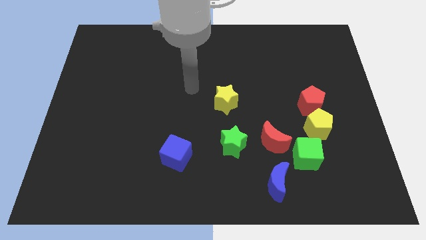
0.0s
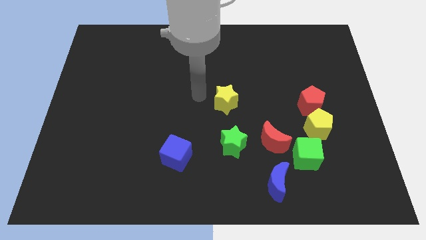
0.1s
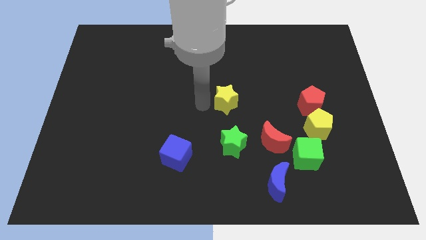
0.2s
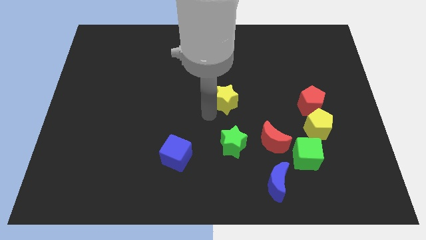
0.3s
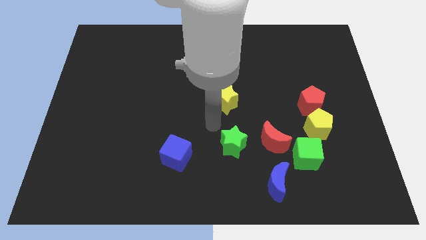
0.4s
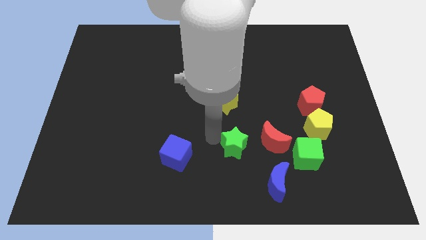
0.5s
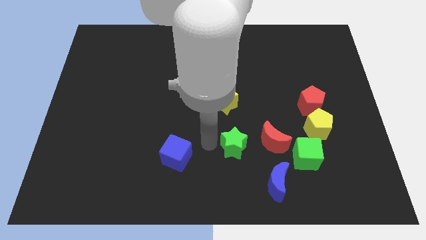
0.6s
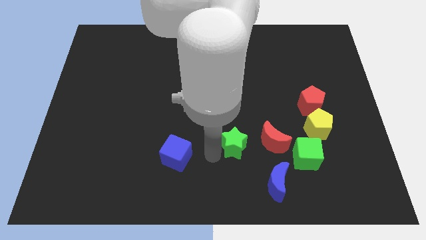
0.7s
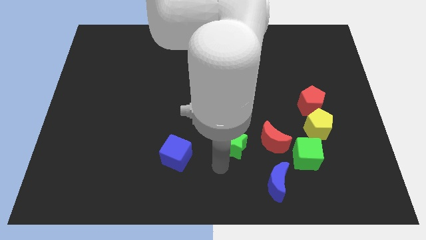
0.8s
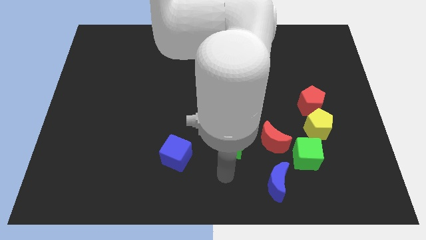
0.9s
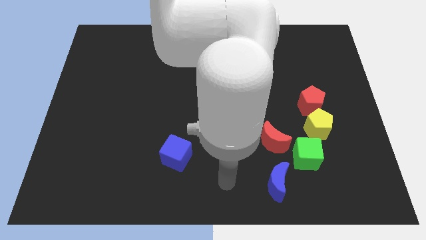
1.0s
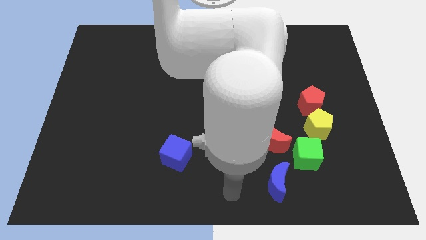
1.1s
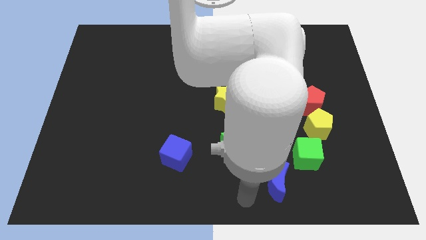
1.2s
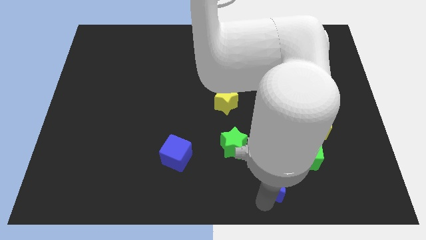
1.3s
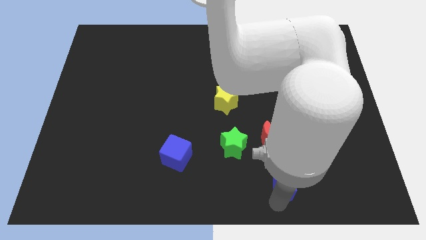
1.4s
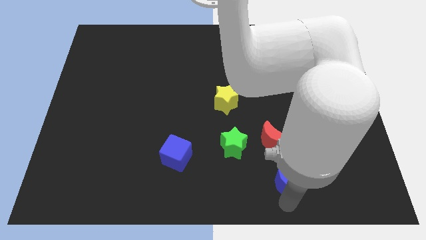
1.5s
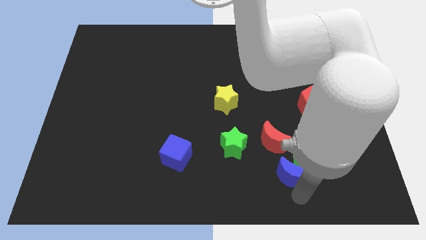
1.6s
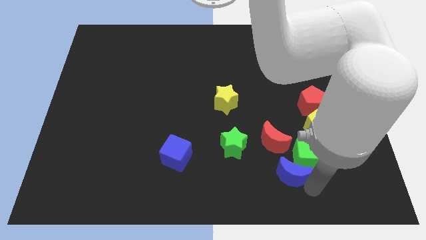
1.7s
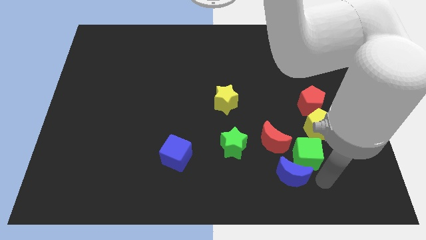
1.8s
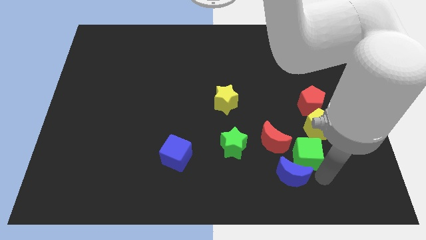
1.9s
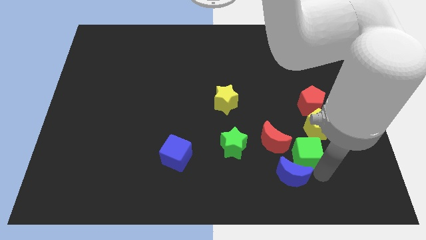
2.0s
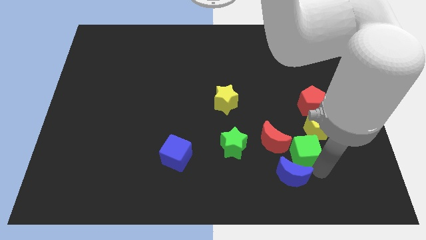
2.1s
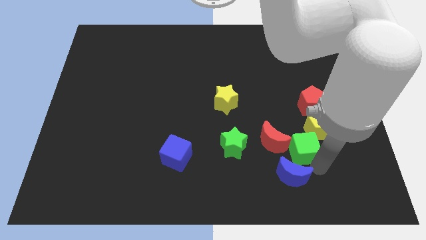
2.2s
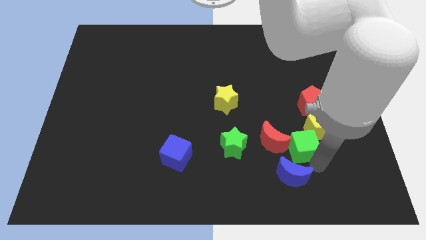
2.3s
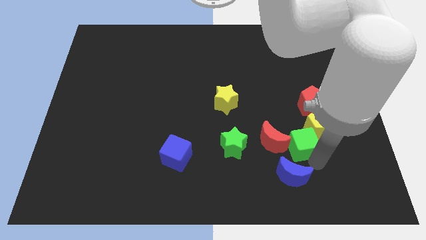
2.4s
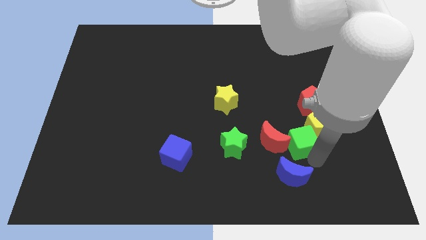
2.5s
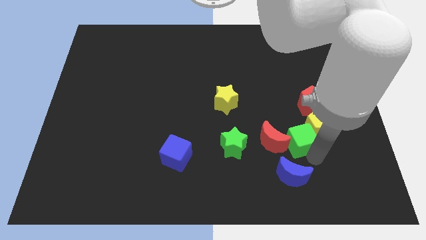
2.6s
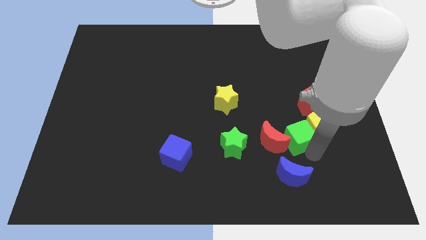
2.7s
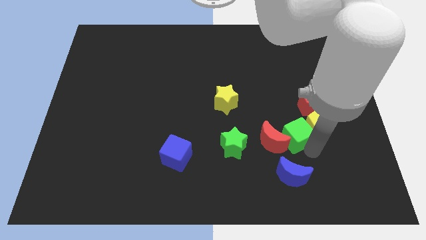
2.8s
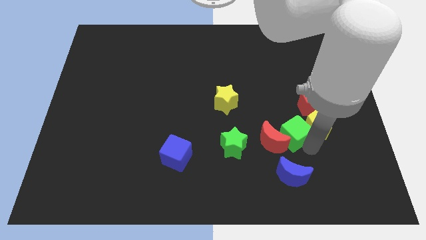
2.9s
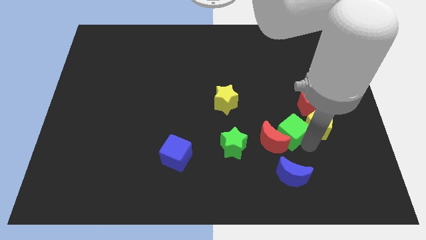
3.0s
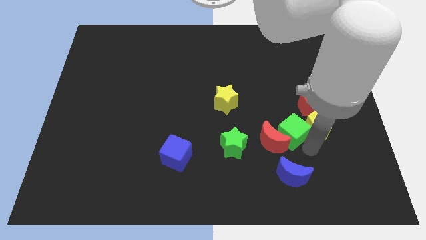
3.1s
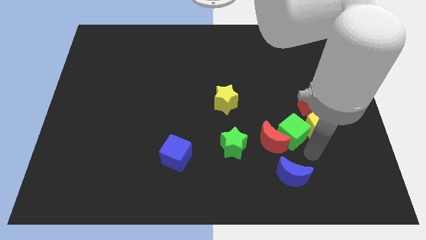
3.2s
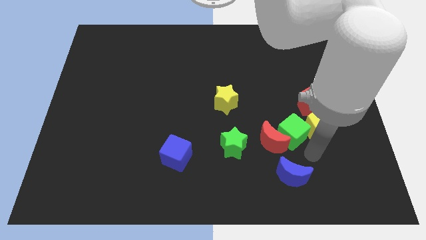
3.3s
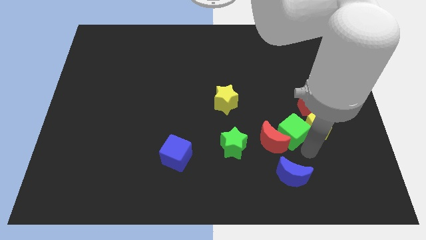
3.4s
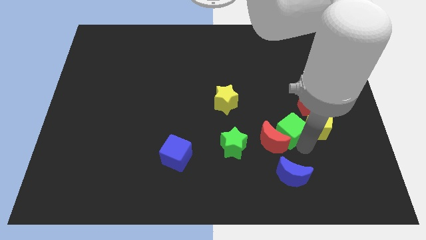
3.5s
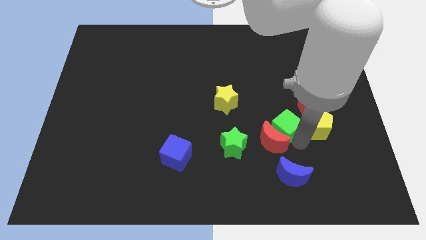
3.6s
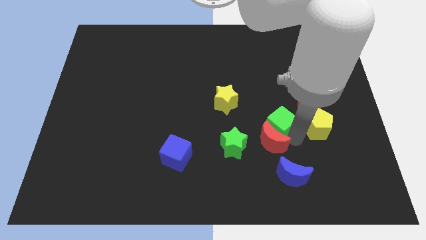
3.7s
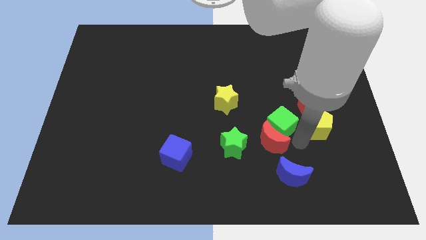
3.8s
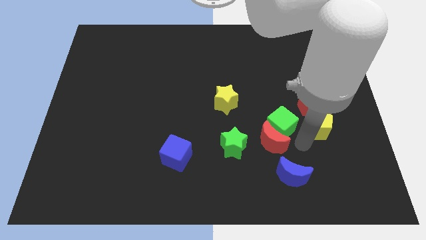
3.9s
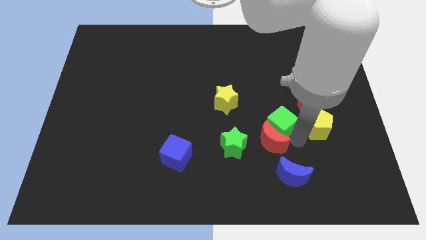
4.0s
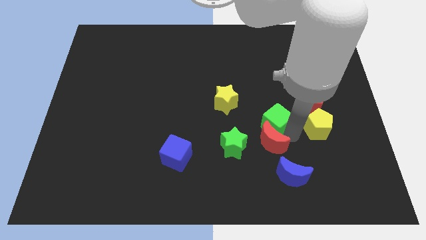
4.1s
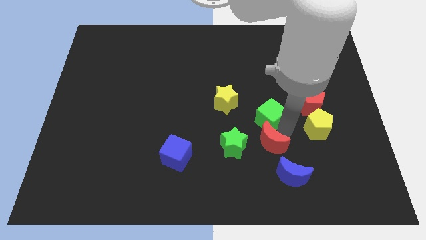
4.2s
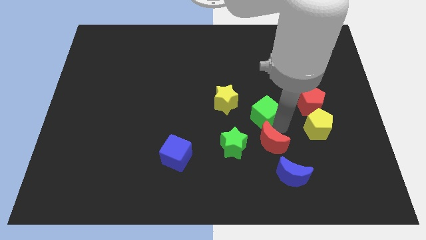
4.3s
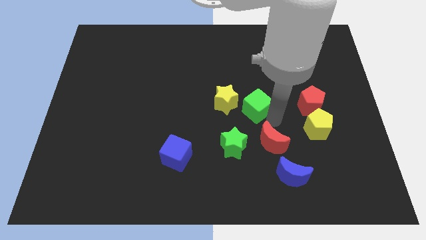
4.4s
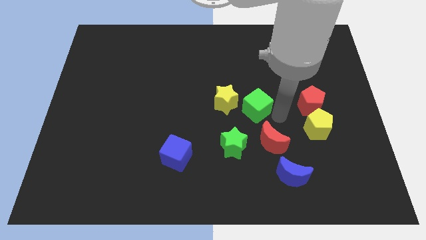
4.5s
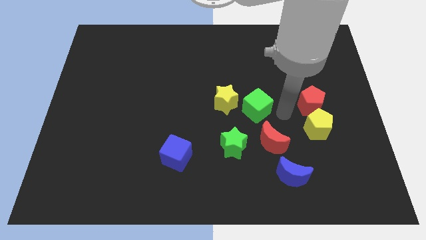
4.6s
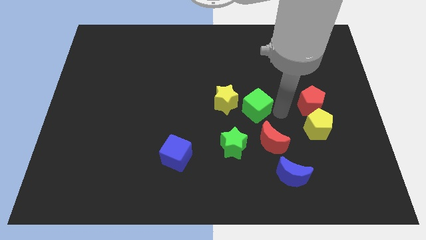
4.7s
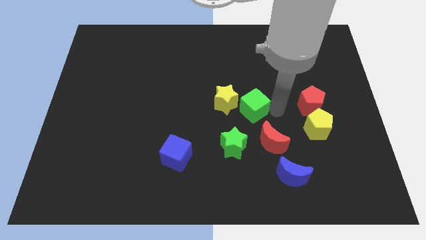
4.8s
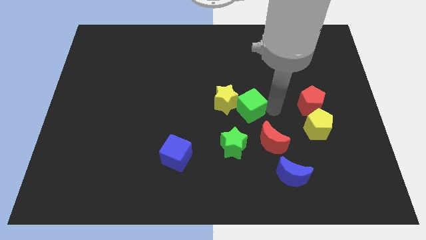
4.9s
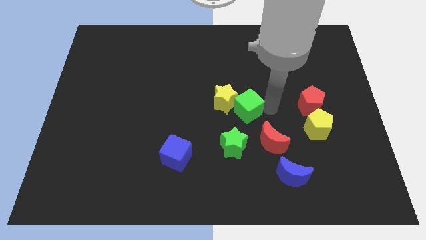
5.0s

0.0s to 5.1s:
put the green cube to the yellow star
